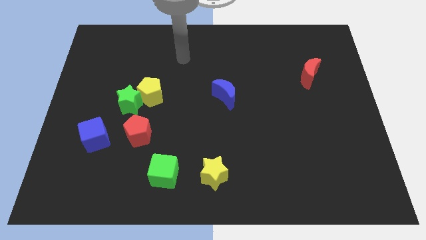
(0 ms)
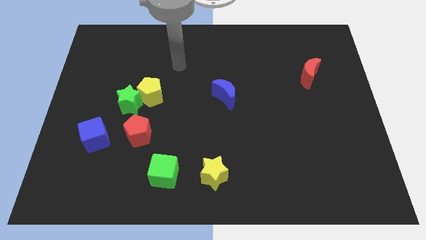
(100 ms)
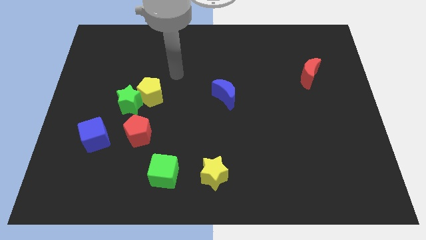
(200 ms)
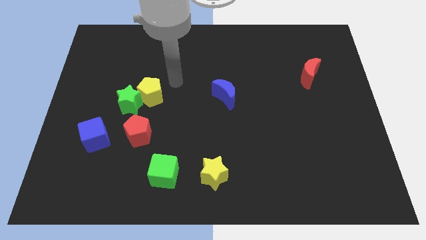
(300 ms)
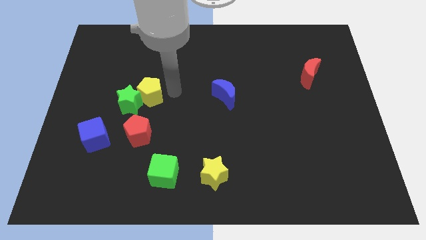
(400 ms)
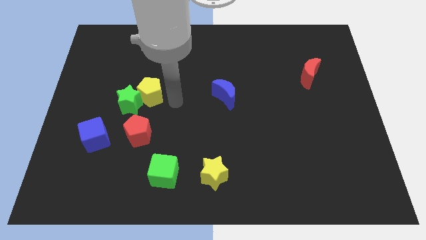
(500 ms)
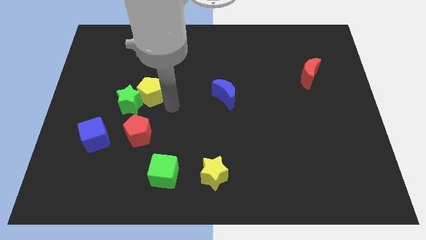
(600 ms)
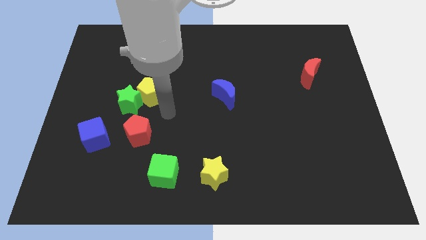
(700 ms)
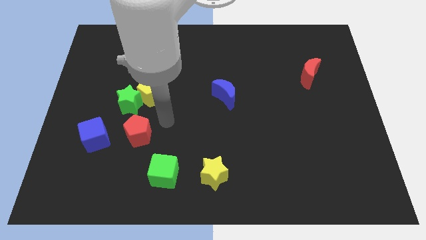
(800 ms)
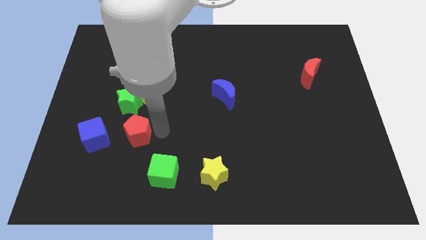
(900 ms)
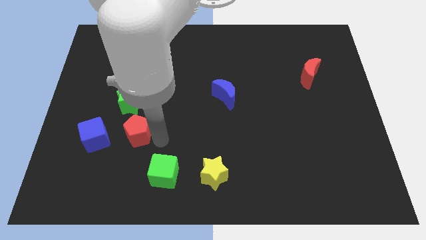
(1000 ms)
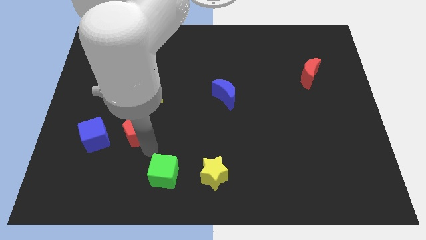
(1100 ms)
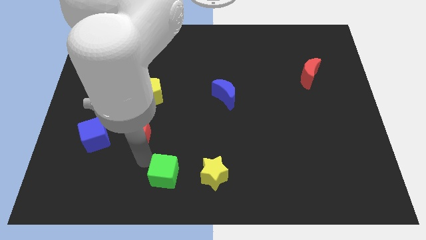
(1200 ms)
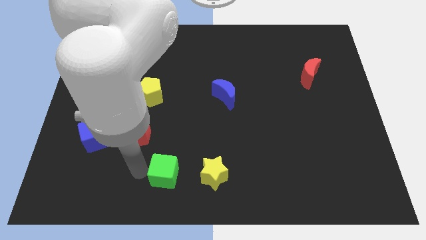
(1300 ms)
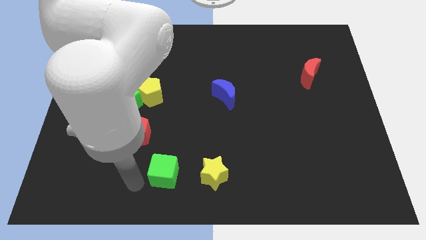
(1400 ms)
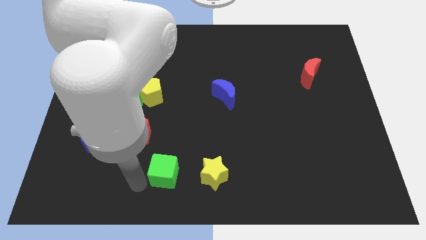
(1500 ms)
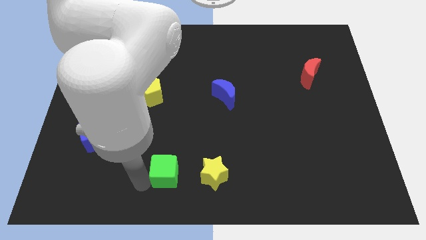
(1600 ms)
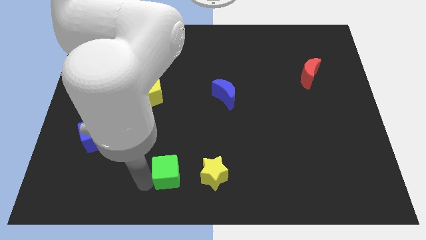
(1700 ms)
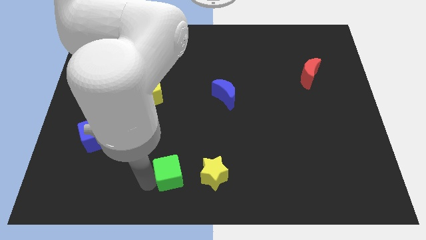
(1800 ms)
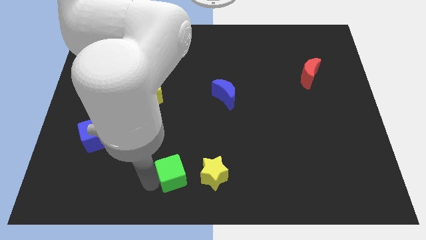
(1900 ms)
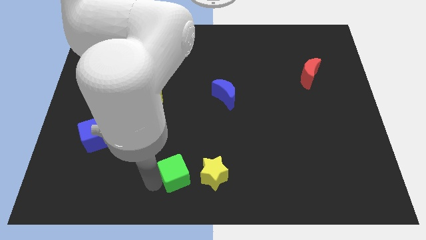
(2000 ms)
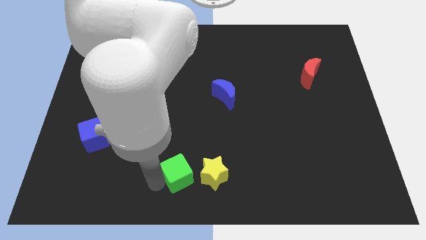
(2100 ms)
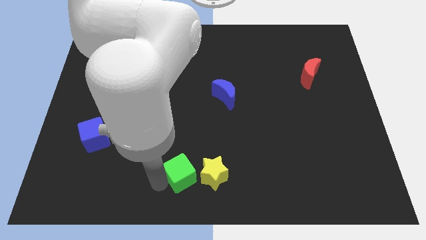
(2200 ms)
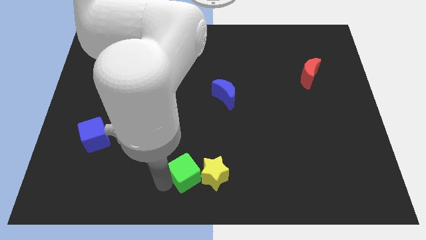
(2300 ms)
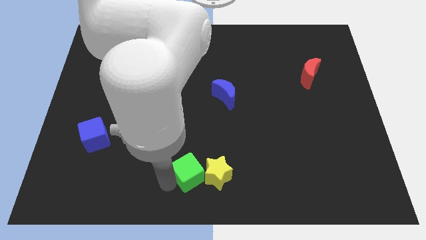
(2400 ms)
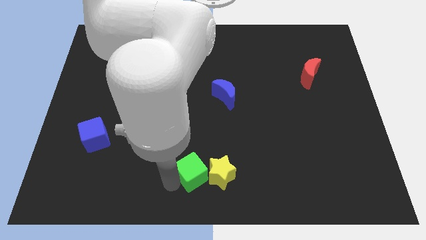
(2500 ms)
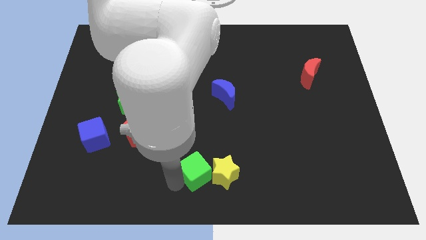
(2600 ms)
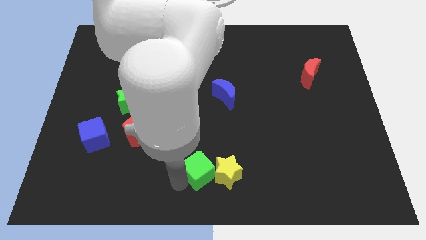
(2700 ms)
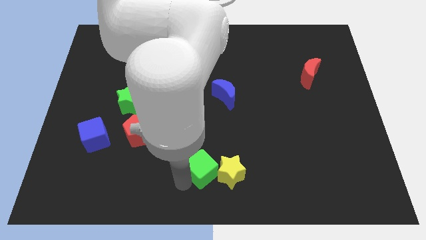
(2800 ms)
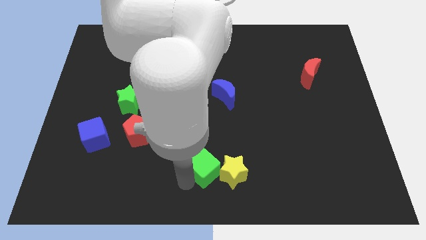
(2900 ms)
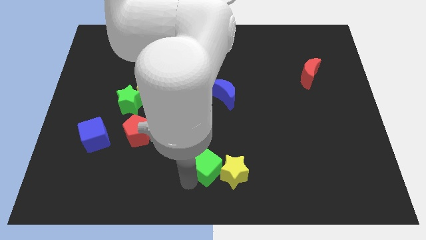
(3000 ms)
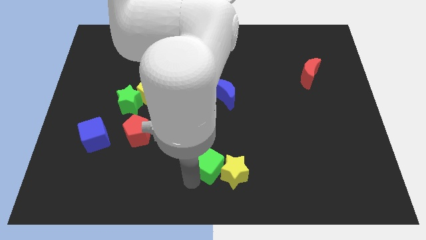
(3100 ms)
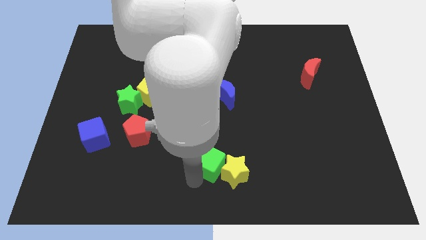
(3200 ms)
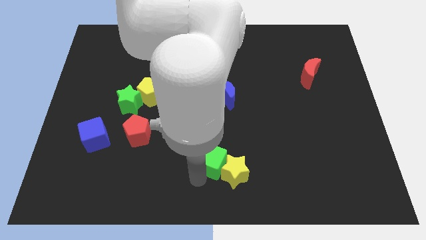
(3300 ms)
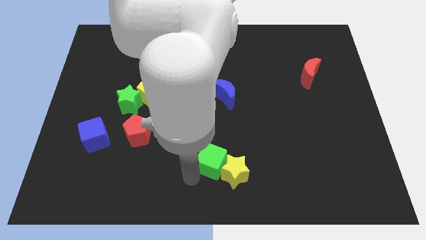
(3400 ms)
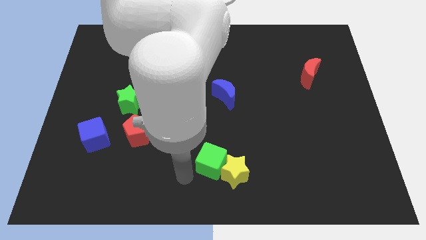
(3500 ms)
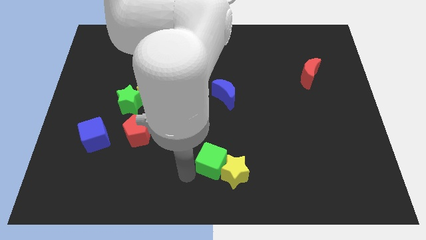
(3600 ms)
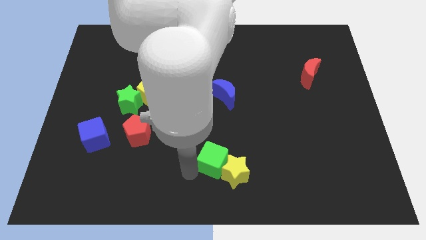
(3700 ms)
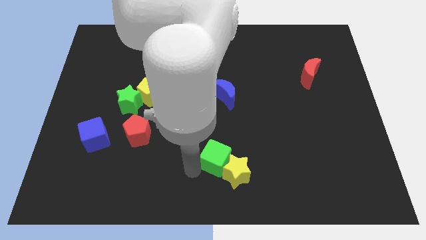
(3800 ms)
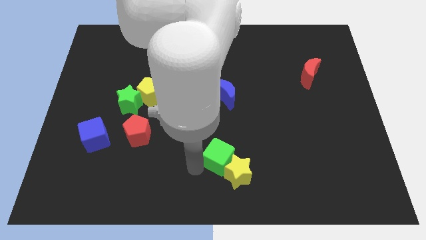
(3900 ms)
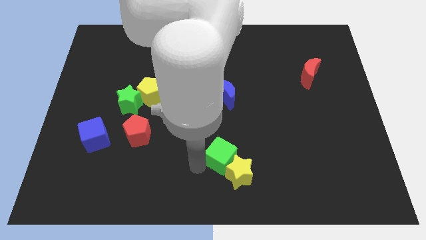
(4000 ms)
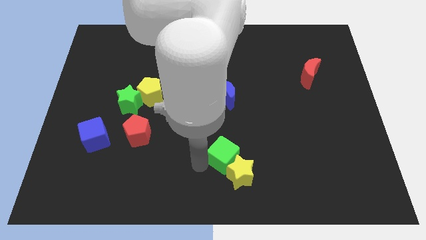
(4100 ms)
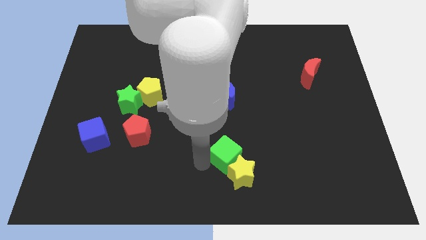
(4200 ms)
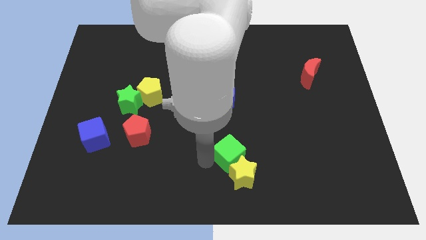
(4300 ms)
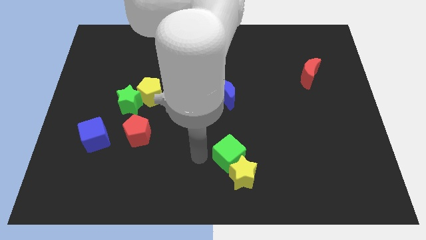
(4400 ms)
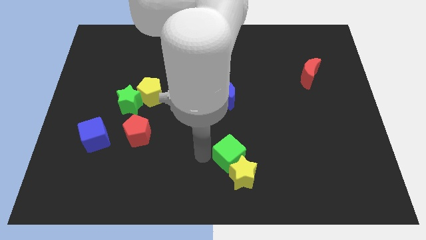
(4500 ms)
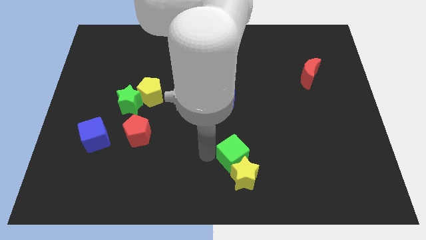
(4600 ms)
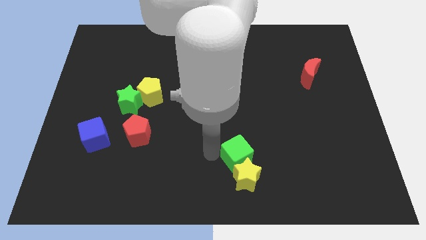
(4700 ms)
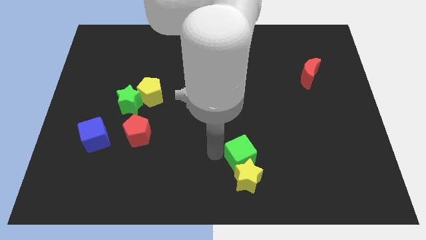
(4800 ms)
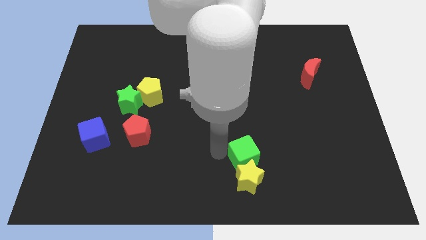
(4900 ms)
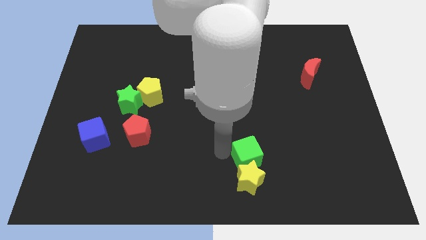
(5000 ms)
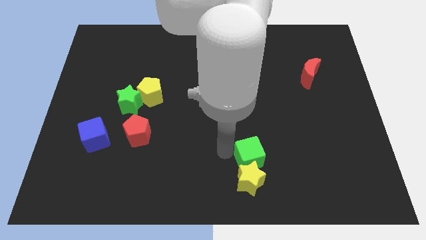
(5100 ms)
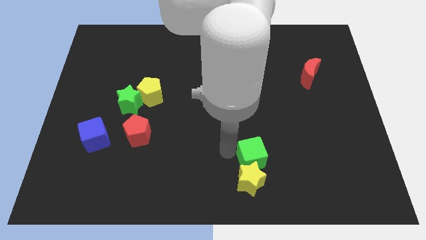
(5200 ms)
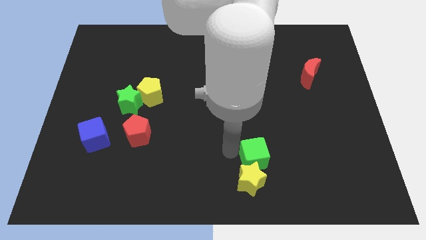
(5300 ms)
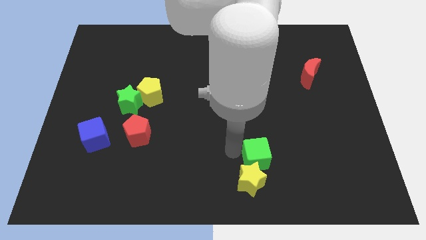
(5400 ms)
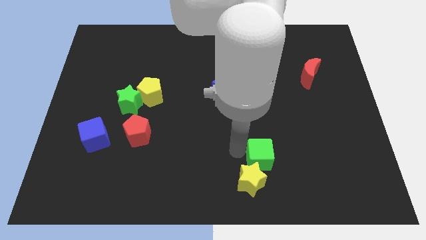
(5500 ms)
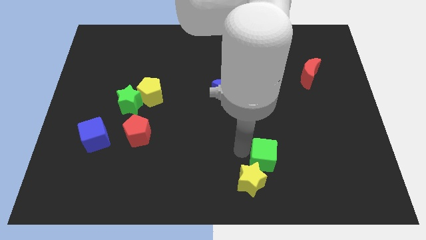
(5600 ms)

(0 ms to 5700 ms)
push the green cube to the right

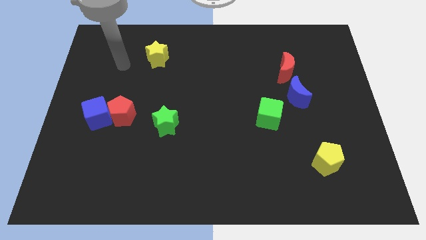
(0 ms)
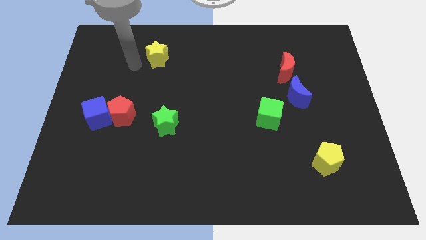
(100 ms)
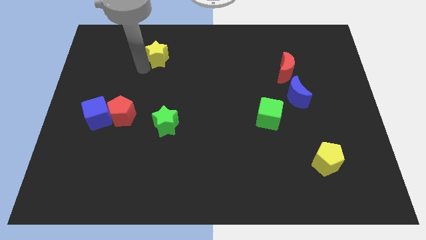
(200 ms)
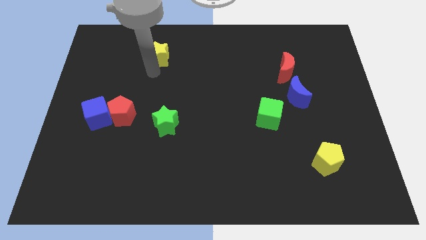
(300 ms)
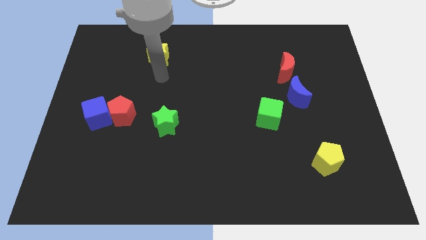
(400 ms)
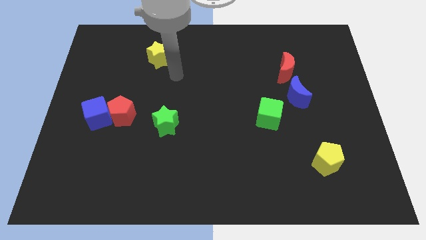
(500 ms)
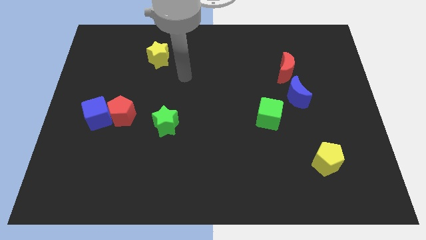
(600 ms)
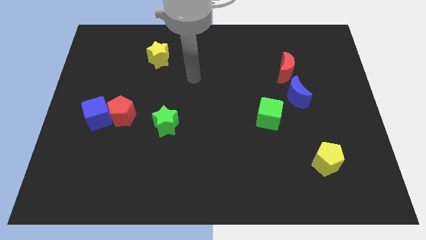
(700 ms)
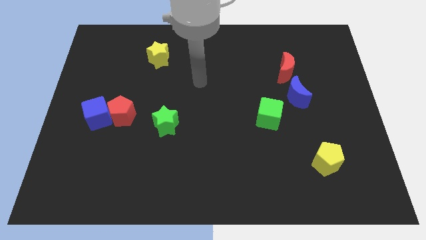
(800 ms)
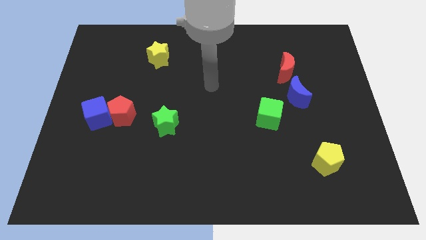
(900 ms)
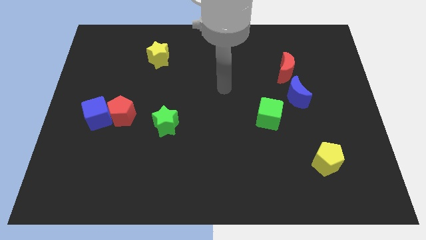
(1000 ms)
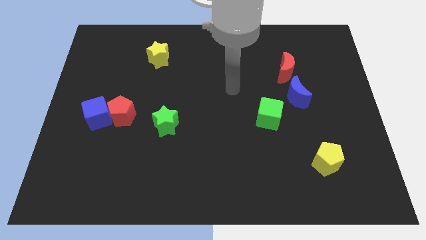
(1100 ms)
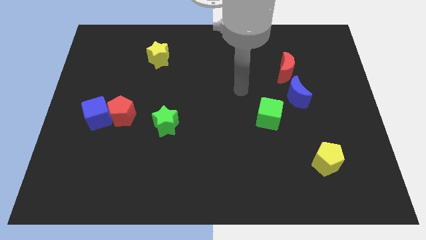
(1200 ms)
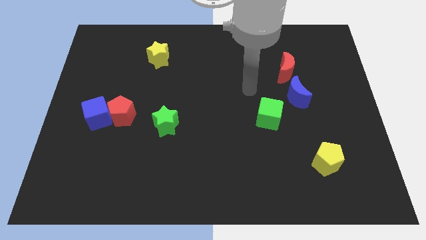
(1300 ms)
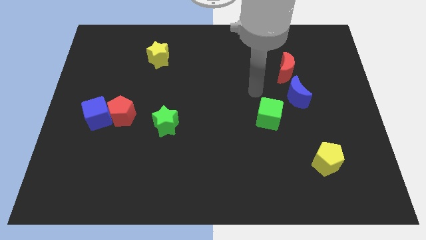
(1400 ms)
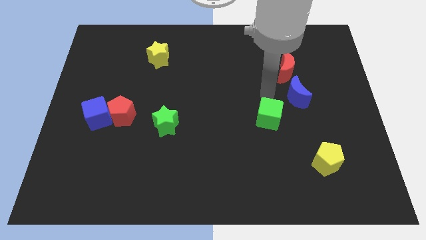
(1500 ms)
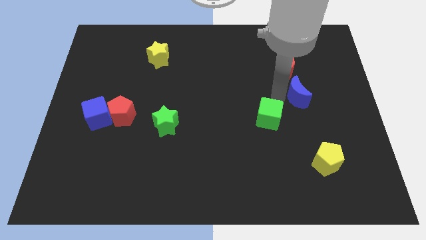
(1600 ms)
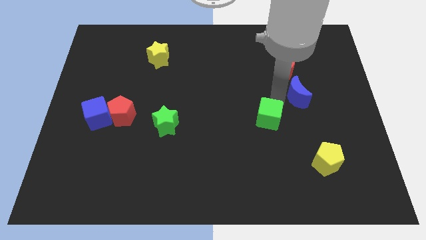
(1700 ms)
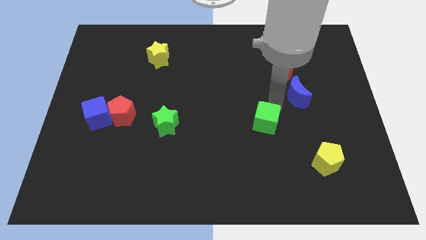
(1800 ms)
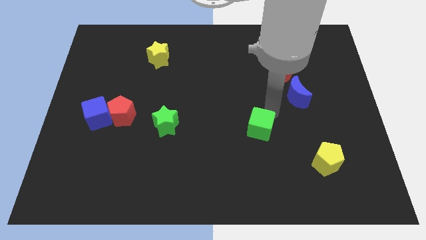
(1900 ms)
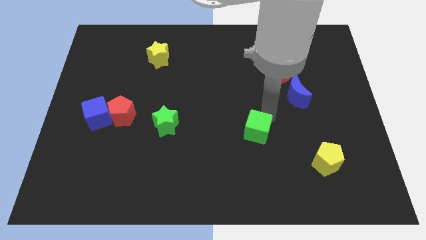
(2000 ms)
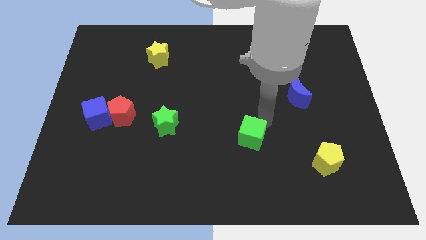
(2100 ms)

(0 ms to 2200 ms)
slightly push the green cube downwards and to the left

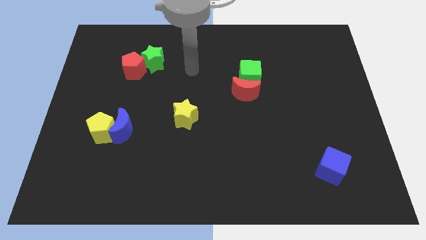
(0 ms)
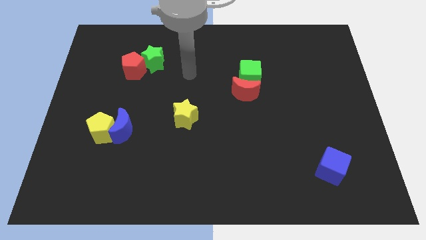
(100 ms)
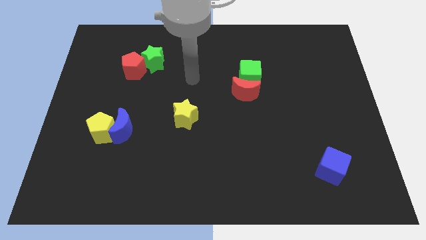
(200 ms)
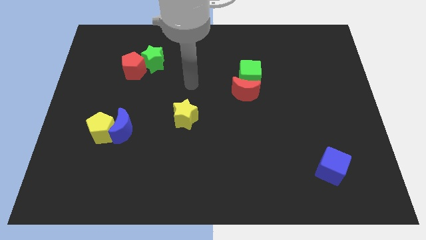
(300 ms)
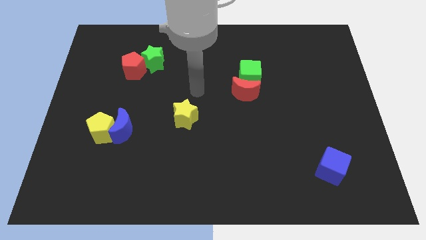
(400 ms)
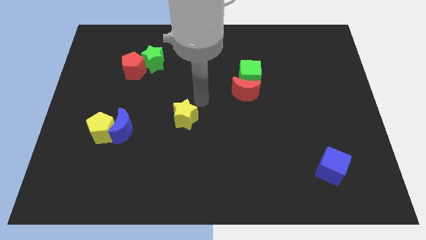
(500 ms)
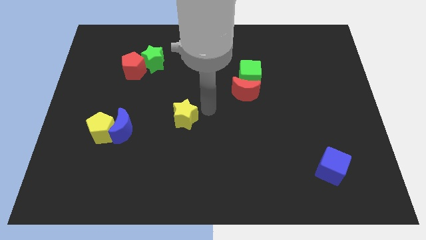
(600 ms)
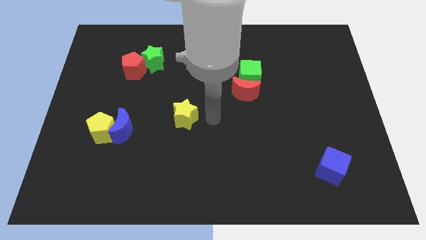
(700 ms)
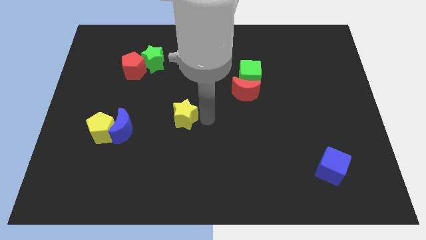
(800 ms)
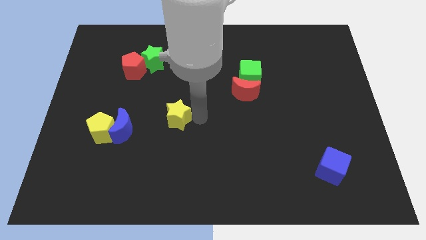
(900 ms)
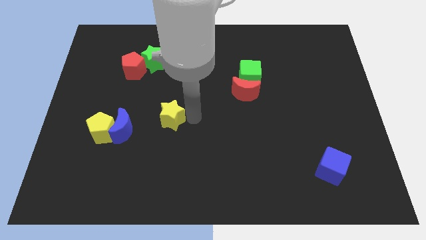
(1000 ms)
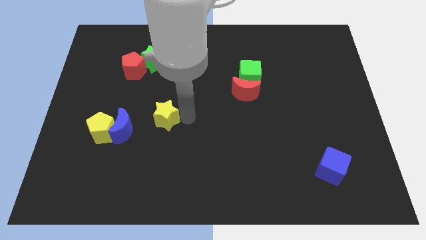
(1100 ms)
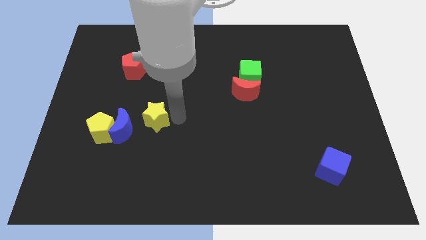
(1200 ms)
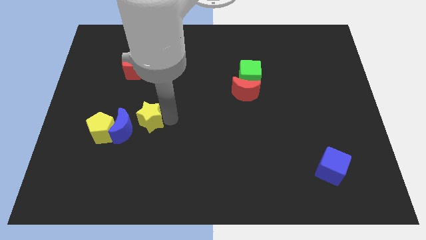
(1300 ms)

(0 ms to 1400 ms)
move the yellow star a bit left
